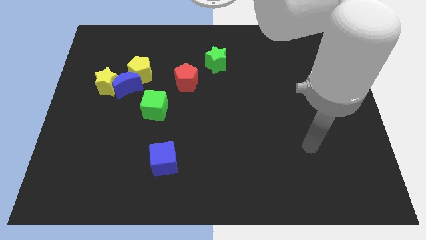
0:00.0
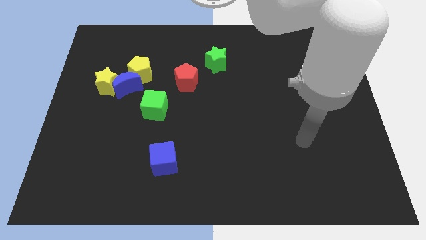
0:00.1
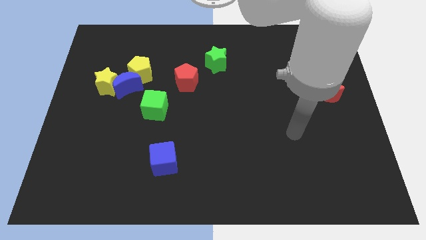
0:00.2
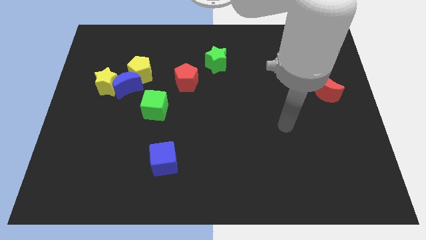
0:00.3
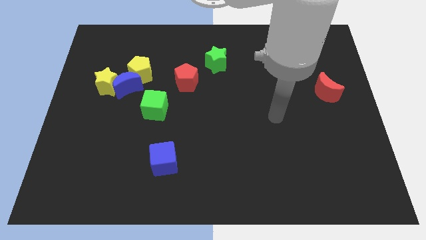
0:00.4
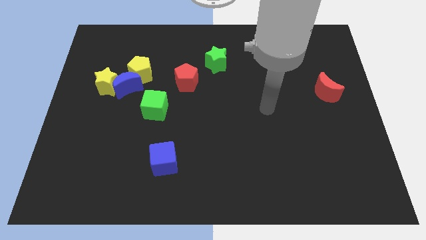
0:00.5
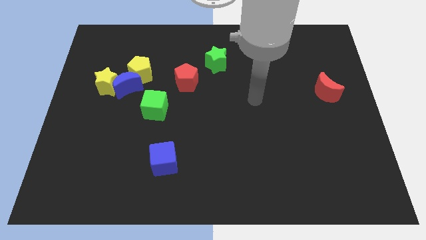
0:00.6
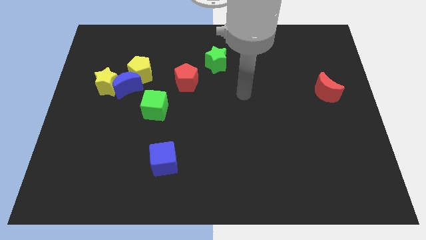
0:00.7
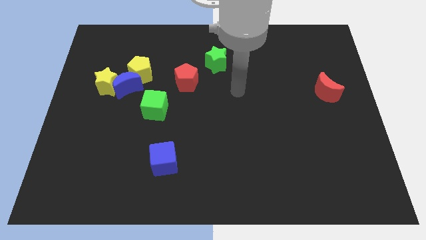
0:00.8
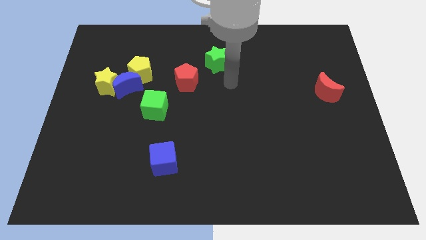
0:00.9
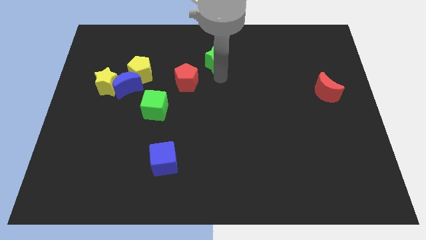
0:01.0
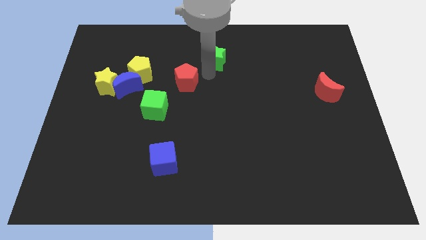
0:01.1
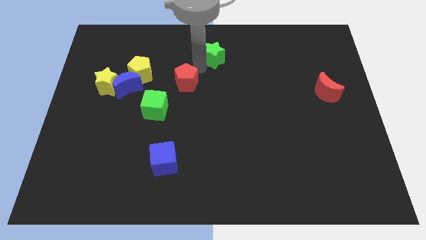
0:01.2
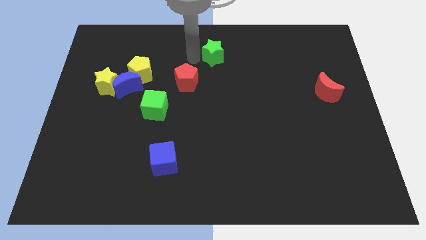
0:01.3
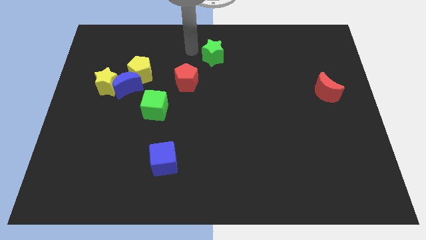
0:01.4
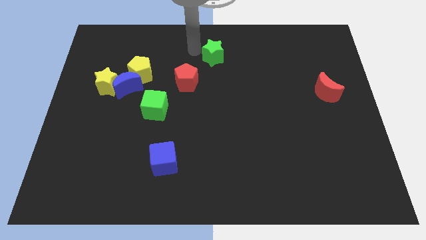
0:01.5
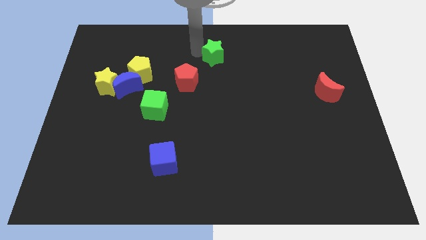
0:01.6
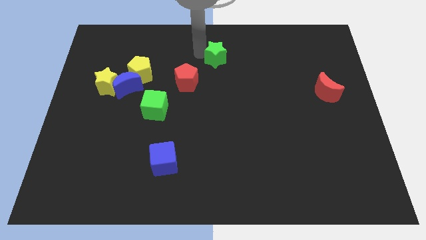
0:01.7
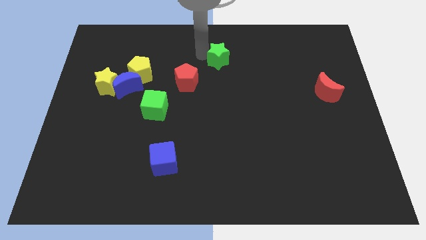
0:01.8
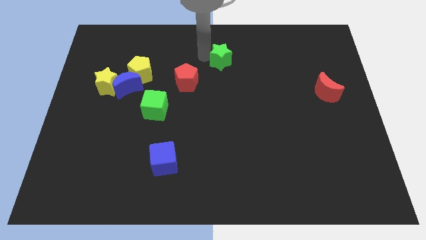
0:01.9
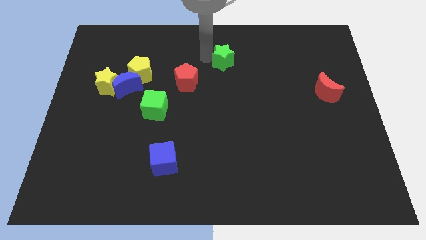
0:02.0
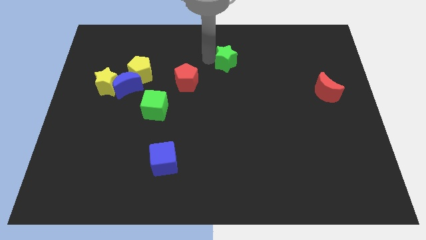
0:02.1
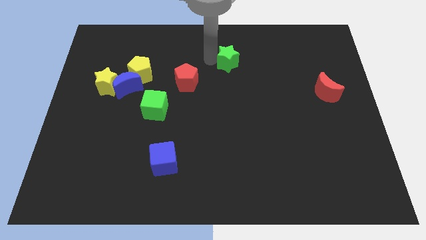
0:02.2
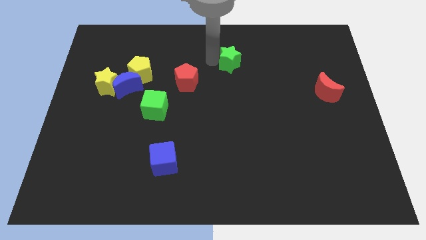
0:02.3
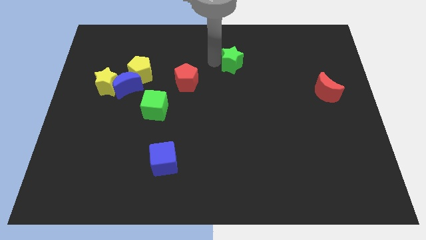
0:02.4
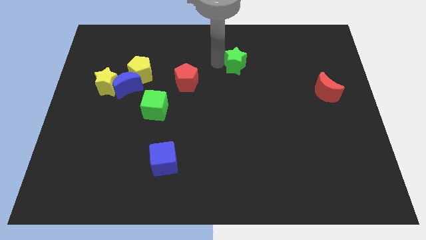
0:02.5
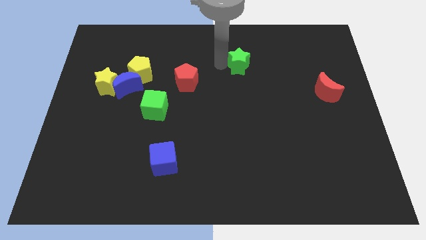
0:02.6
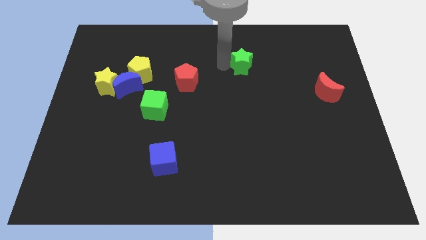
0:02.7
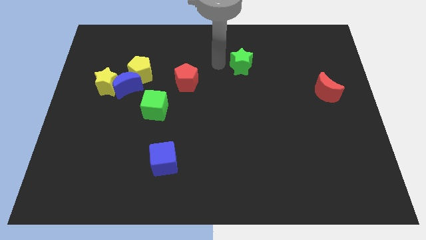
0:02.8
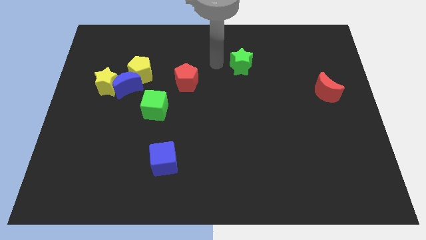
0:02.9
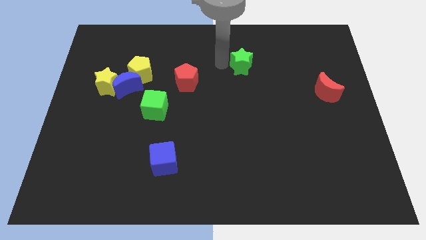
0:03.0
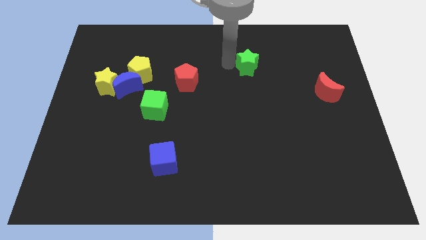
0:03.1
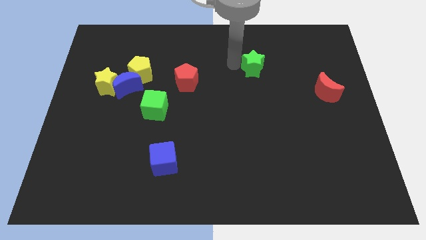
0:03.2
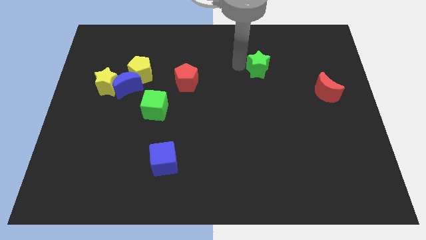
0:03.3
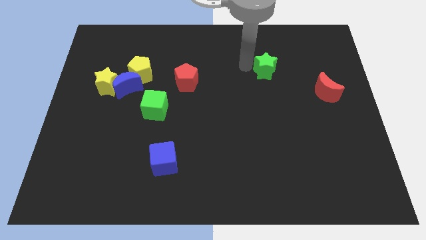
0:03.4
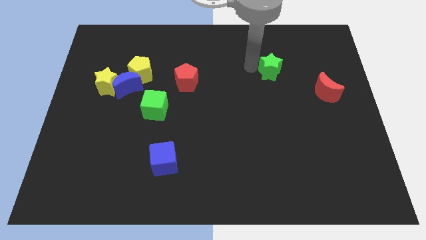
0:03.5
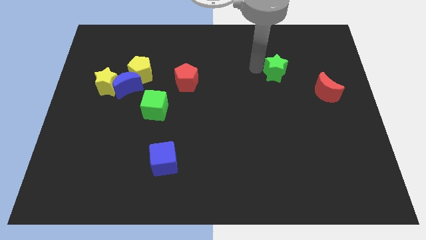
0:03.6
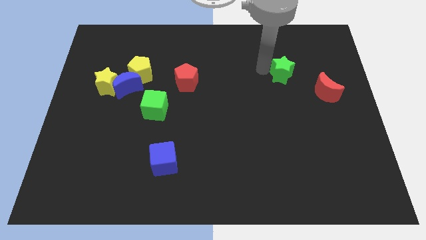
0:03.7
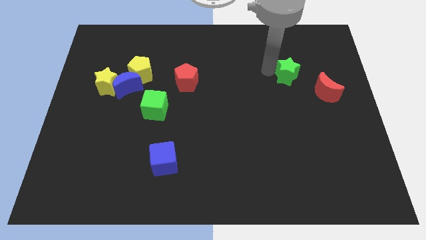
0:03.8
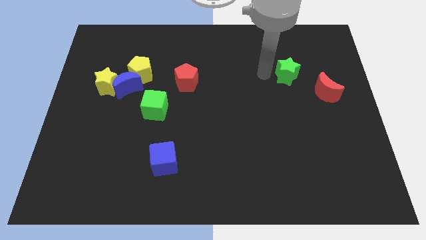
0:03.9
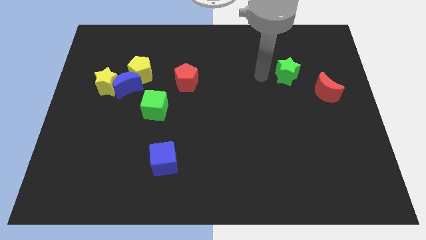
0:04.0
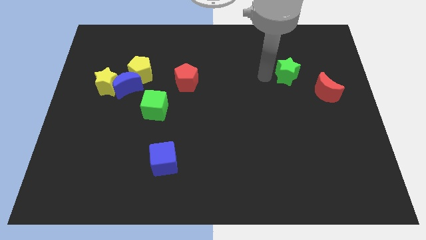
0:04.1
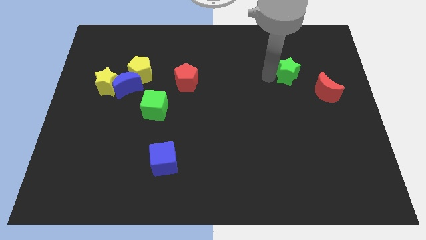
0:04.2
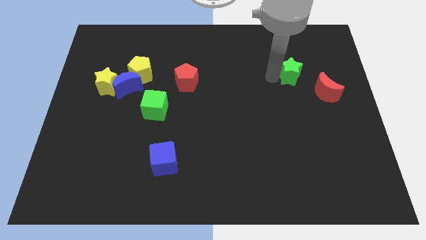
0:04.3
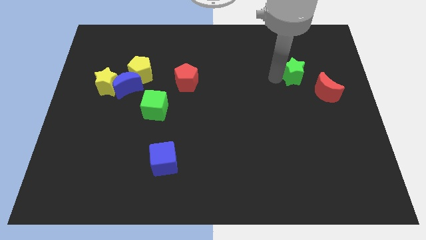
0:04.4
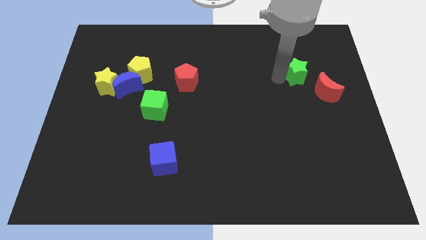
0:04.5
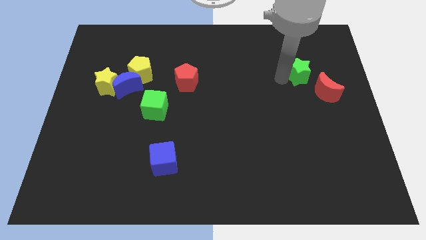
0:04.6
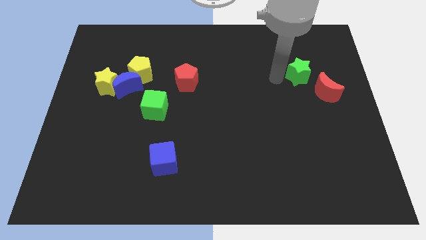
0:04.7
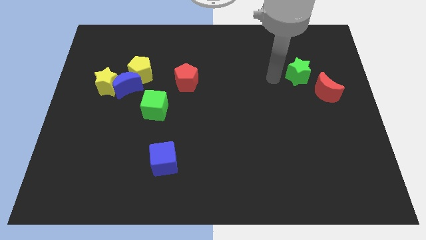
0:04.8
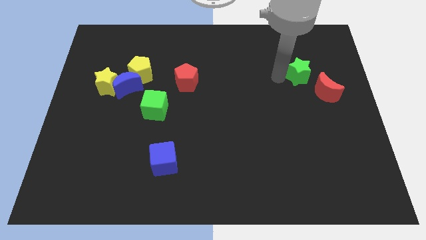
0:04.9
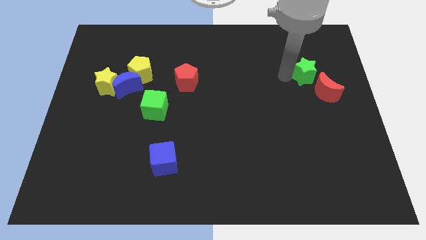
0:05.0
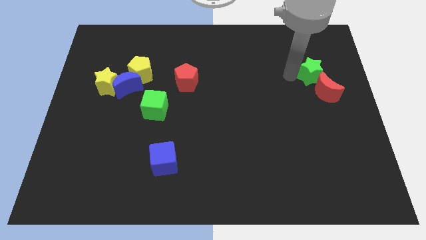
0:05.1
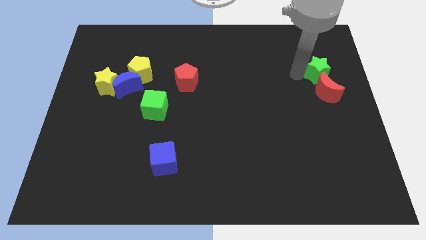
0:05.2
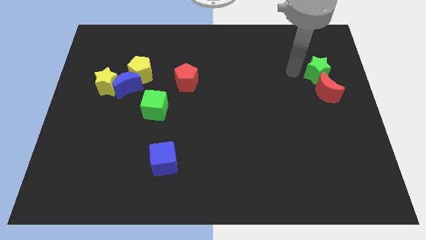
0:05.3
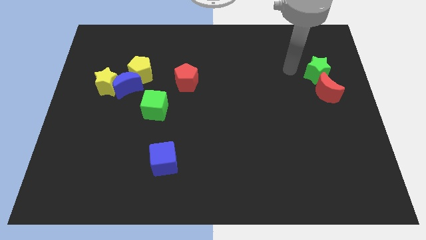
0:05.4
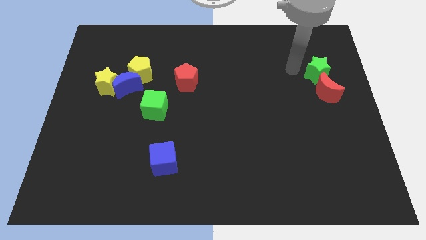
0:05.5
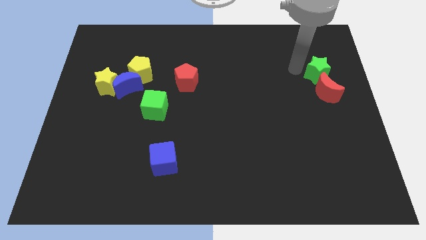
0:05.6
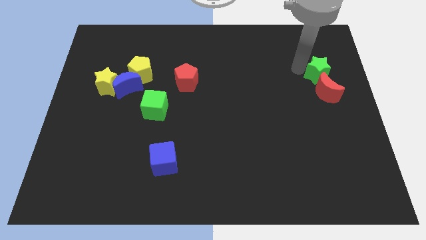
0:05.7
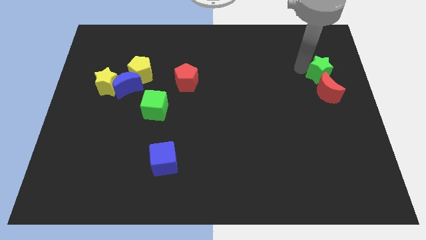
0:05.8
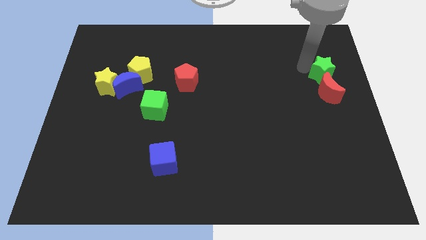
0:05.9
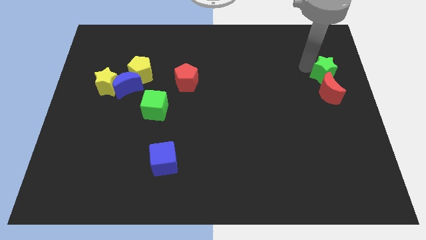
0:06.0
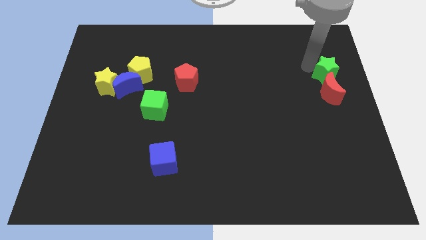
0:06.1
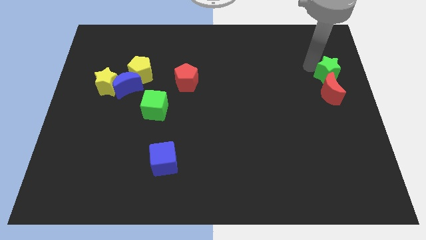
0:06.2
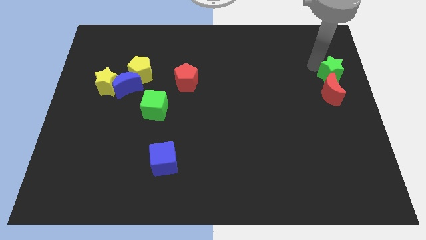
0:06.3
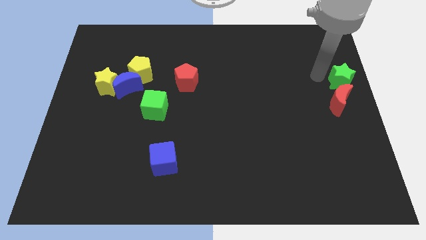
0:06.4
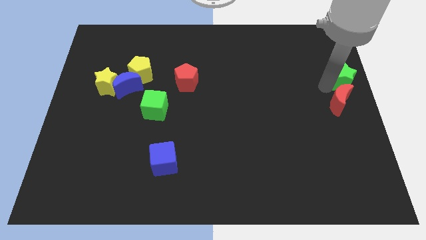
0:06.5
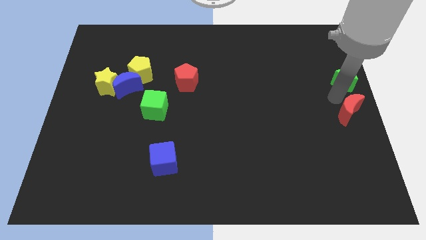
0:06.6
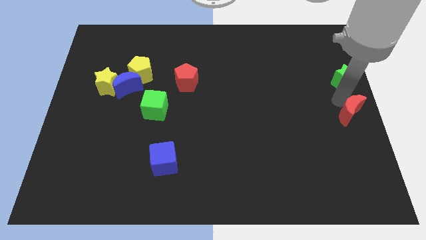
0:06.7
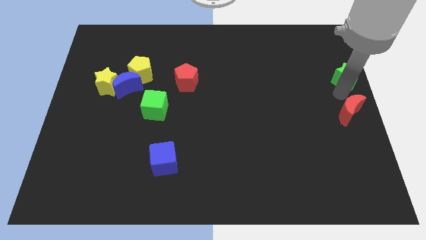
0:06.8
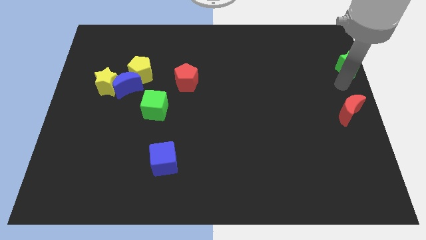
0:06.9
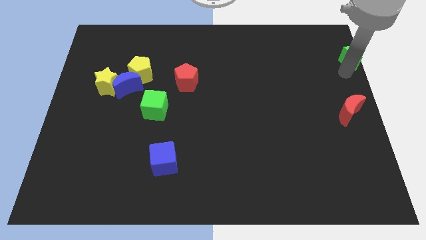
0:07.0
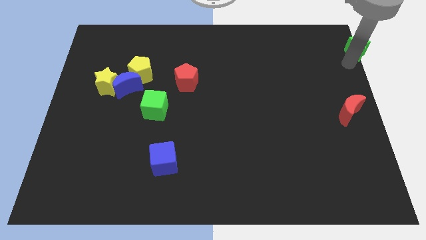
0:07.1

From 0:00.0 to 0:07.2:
push the green star to the top right of the board
